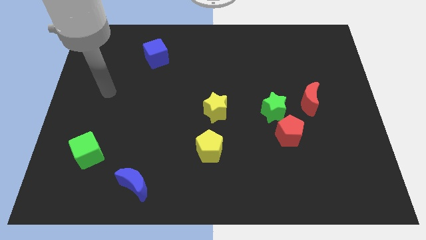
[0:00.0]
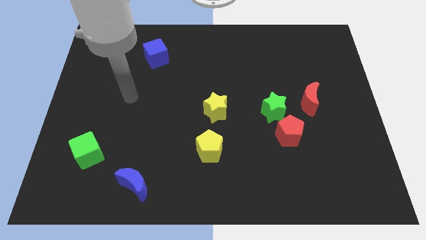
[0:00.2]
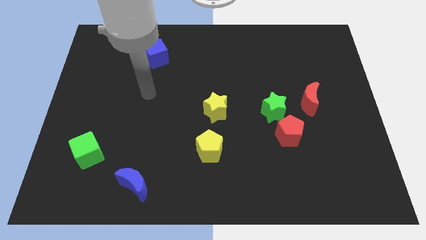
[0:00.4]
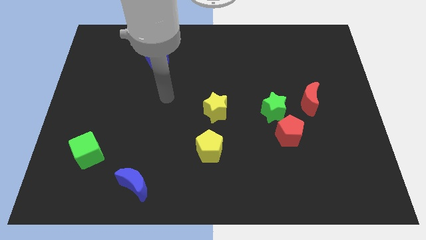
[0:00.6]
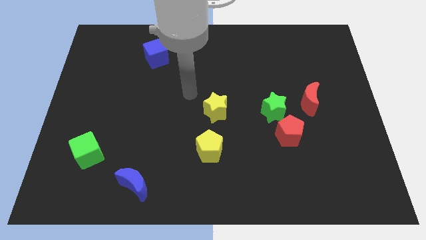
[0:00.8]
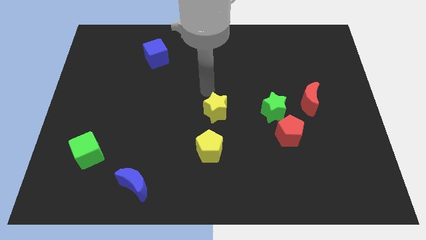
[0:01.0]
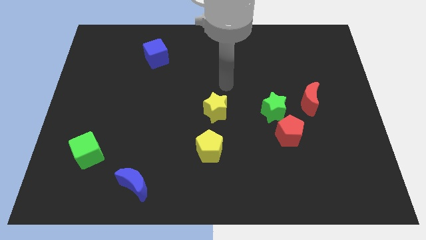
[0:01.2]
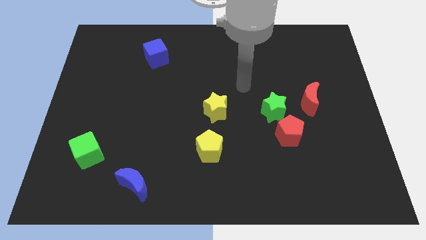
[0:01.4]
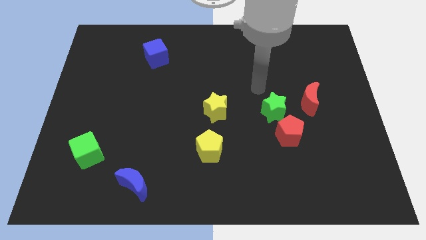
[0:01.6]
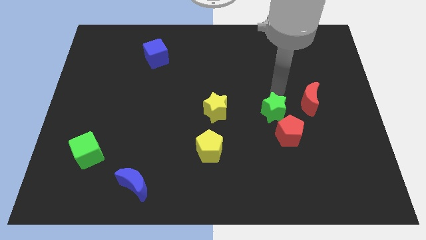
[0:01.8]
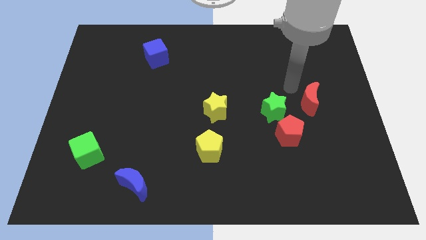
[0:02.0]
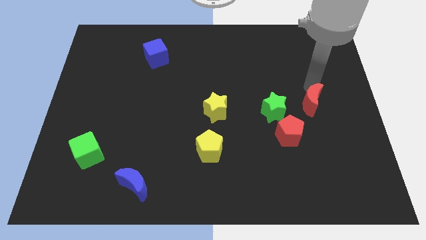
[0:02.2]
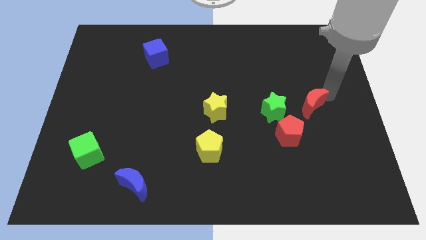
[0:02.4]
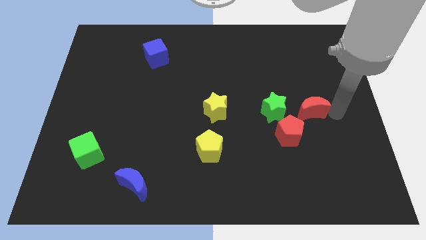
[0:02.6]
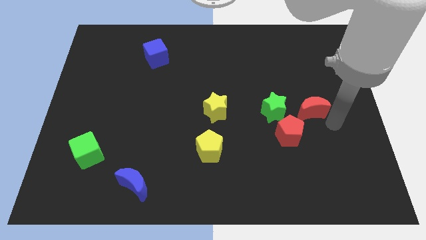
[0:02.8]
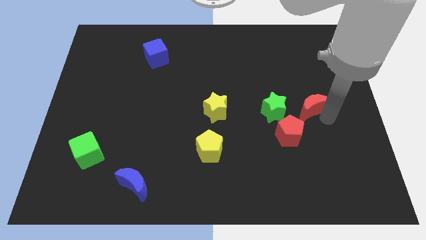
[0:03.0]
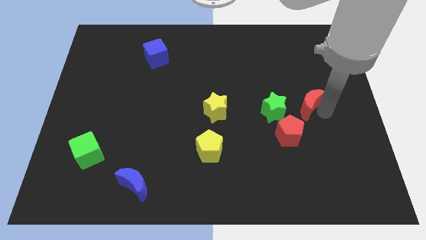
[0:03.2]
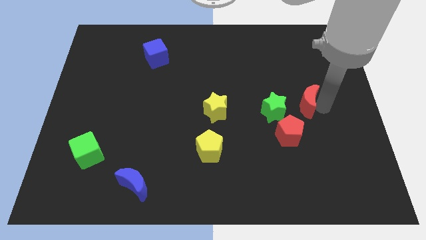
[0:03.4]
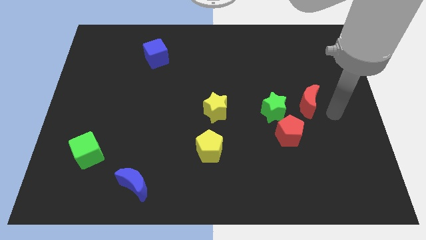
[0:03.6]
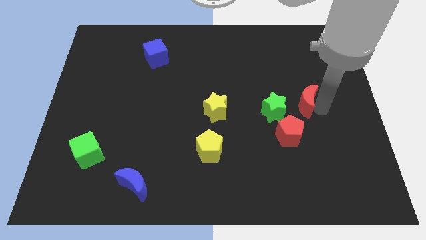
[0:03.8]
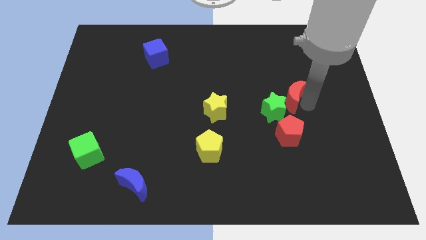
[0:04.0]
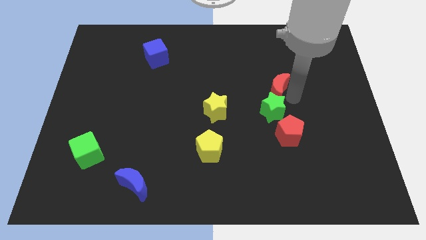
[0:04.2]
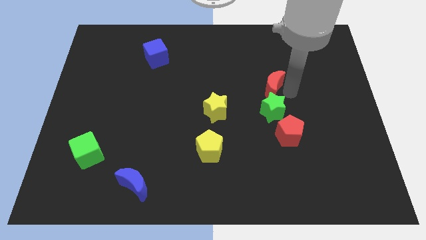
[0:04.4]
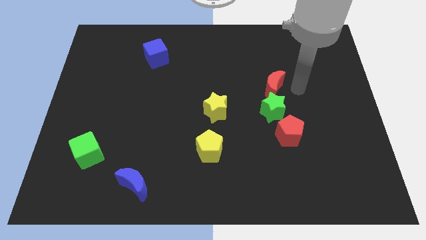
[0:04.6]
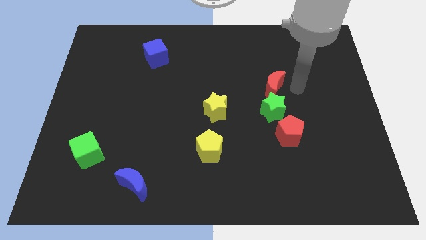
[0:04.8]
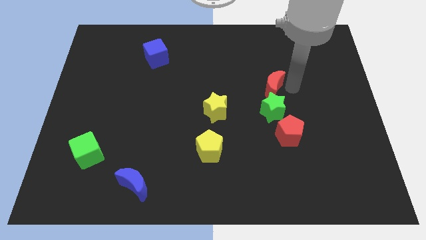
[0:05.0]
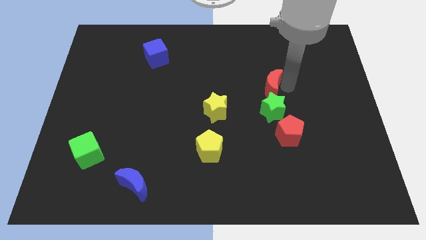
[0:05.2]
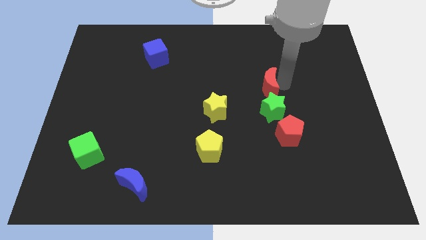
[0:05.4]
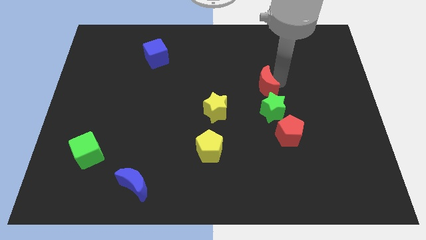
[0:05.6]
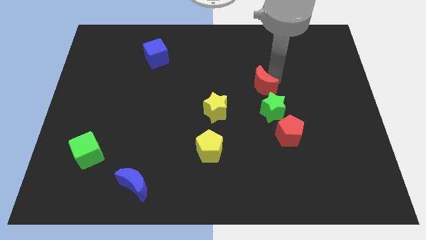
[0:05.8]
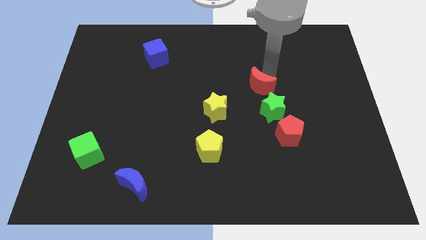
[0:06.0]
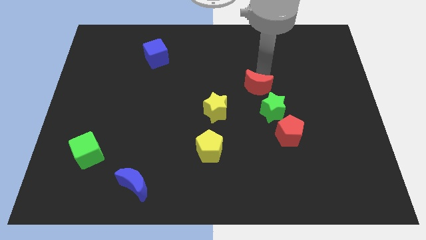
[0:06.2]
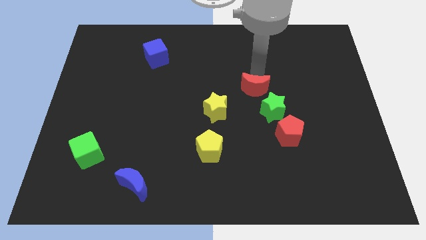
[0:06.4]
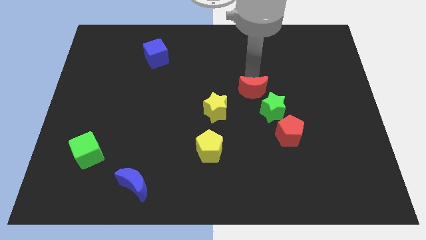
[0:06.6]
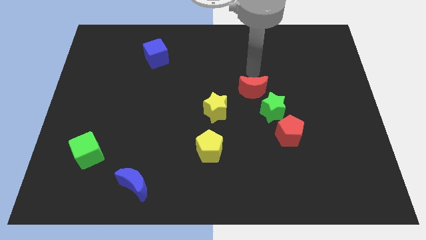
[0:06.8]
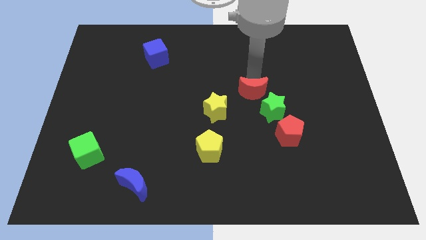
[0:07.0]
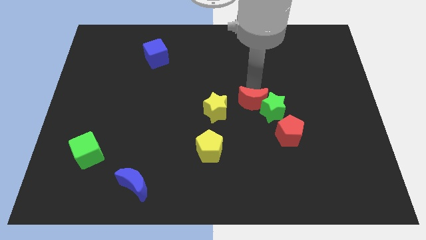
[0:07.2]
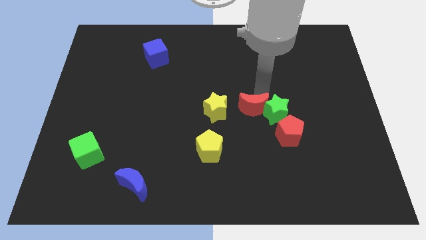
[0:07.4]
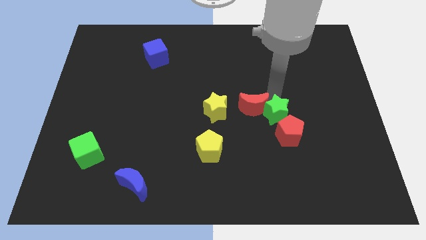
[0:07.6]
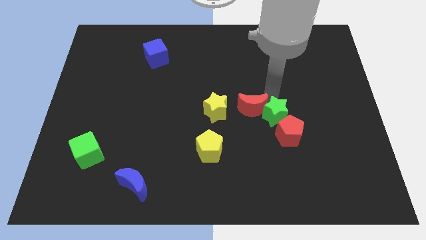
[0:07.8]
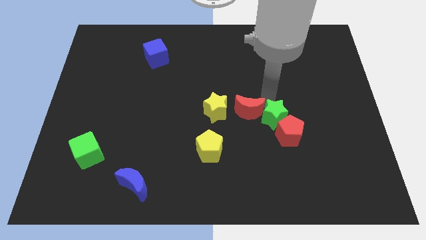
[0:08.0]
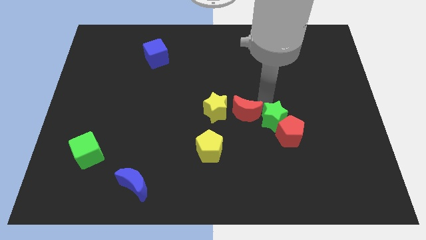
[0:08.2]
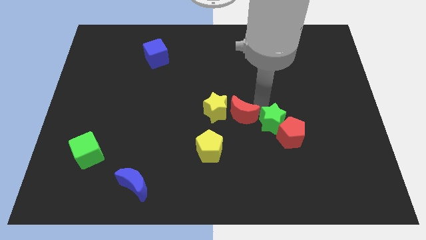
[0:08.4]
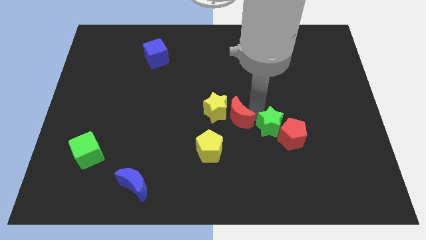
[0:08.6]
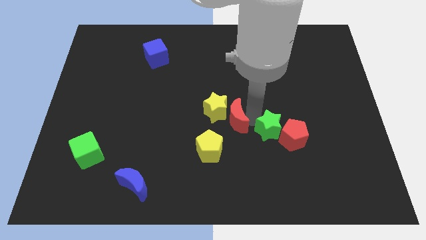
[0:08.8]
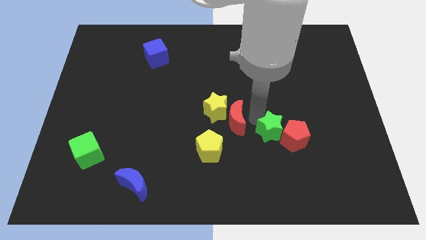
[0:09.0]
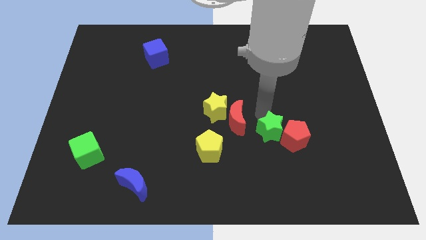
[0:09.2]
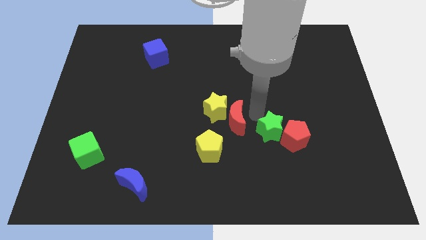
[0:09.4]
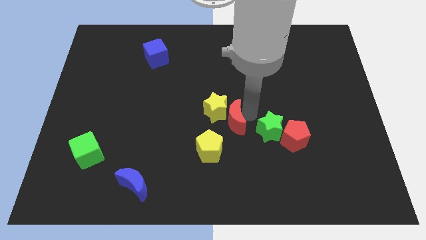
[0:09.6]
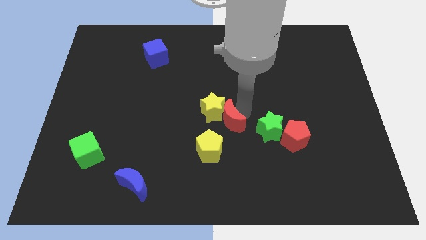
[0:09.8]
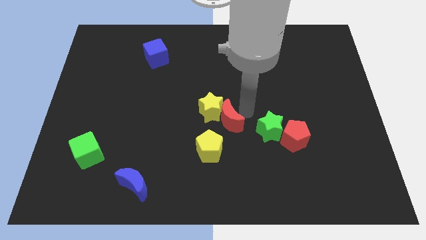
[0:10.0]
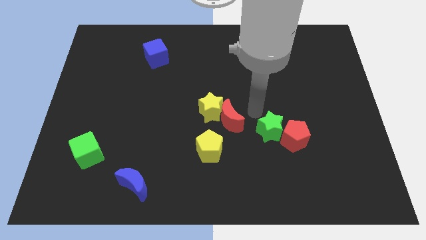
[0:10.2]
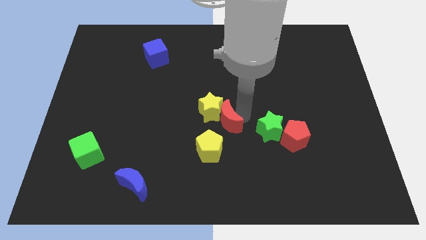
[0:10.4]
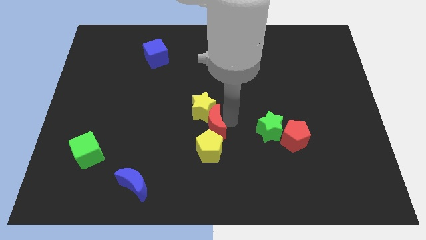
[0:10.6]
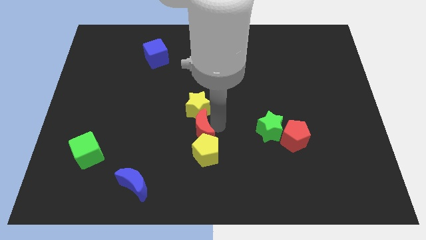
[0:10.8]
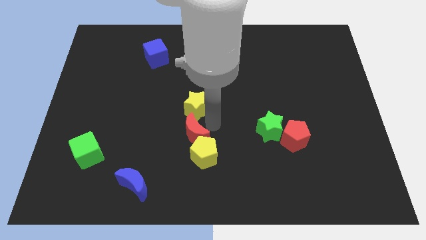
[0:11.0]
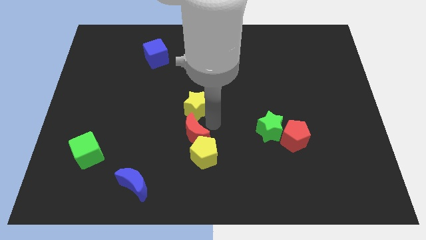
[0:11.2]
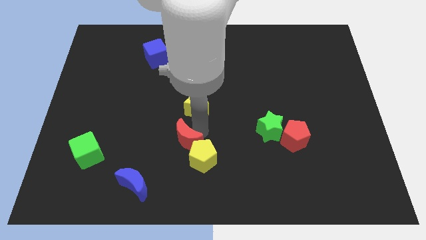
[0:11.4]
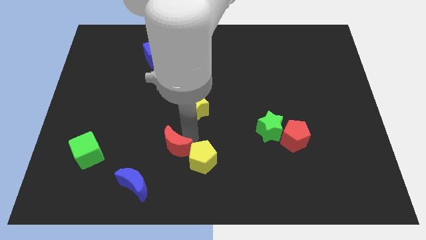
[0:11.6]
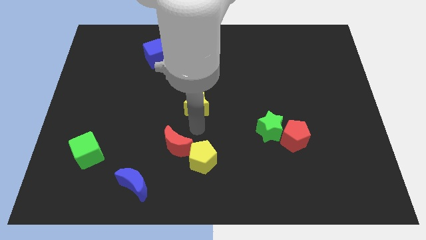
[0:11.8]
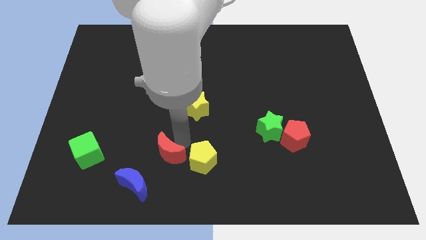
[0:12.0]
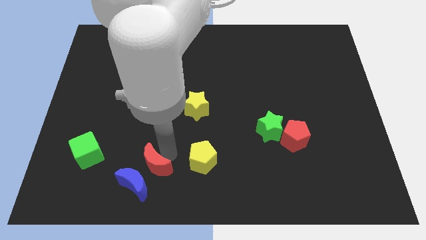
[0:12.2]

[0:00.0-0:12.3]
put the red moon to the blue moon
